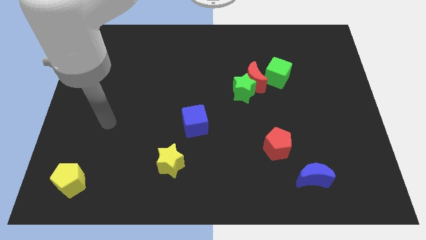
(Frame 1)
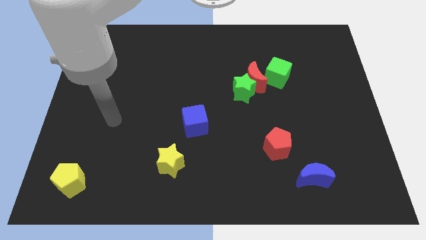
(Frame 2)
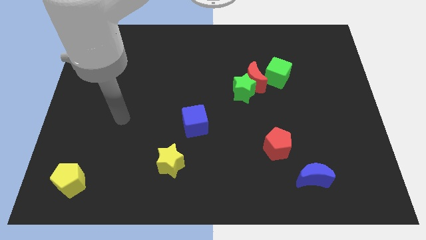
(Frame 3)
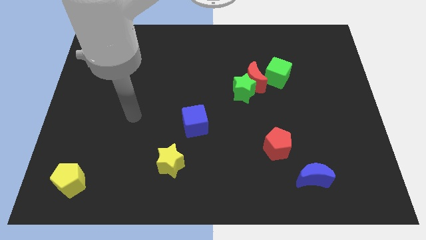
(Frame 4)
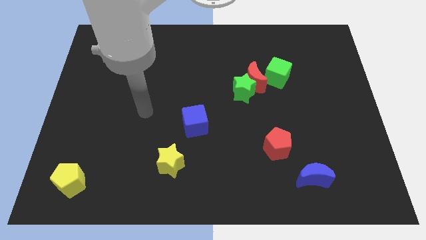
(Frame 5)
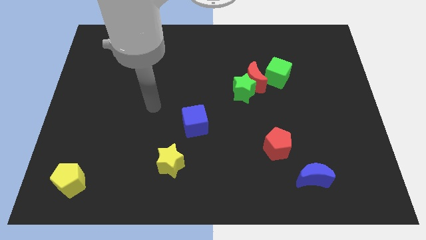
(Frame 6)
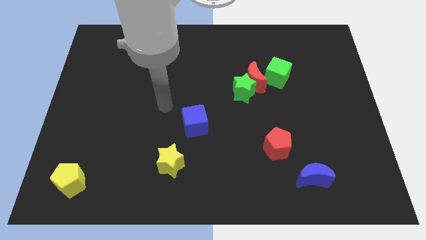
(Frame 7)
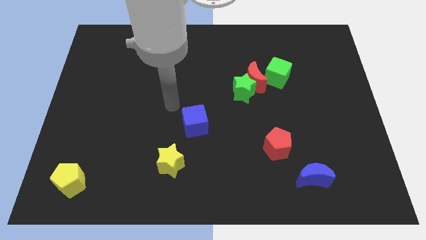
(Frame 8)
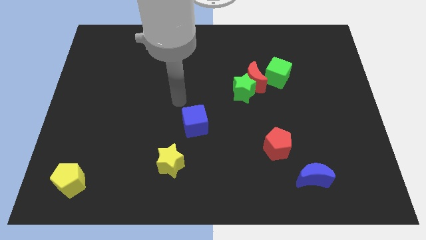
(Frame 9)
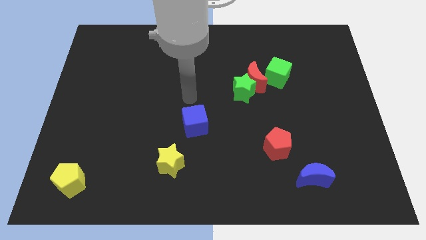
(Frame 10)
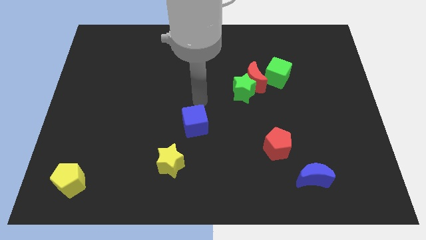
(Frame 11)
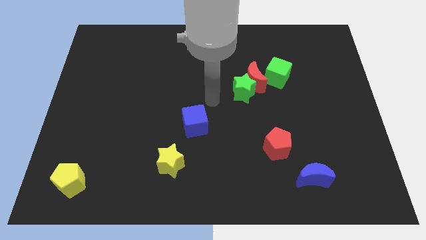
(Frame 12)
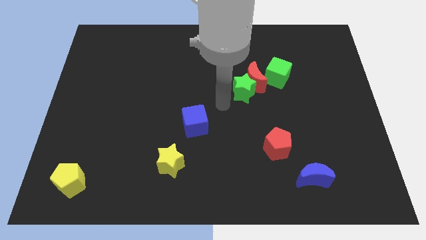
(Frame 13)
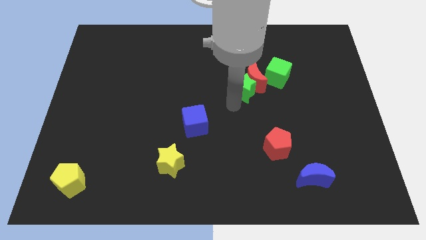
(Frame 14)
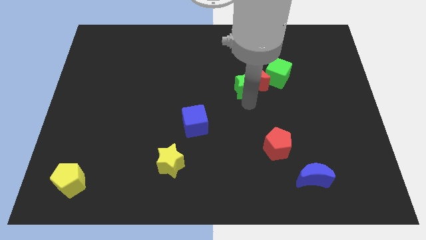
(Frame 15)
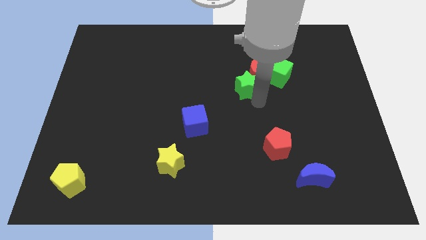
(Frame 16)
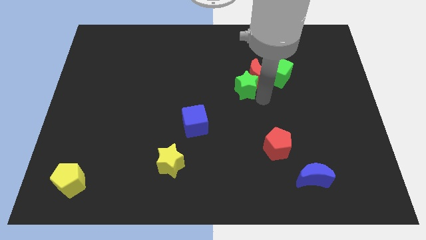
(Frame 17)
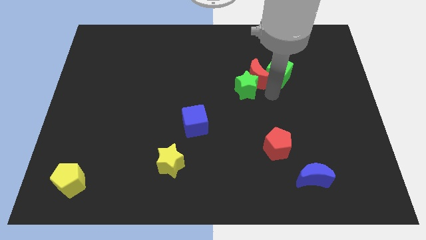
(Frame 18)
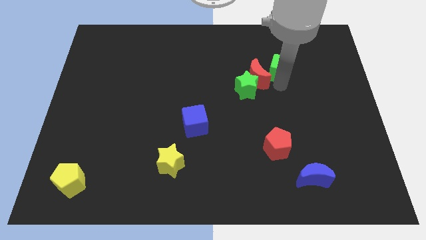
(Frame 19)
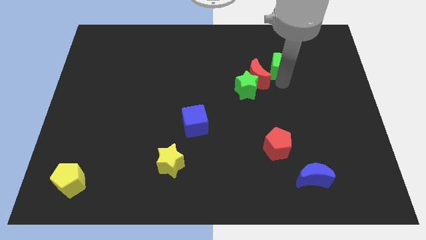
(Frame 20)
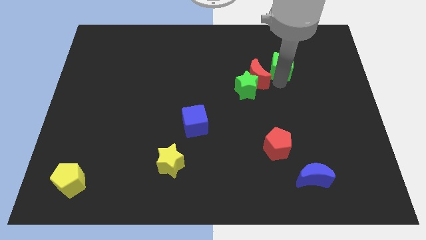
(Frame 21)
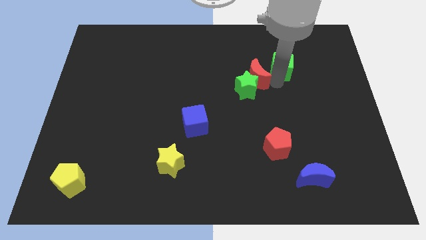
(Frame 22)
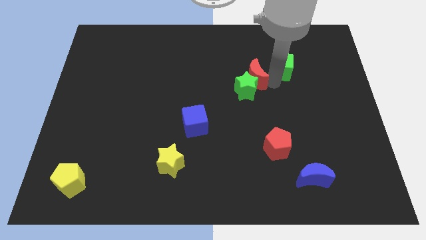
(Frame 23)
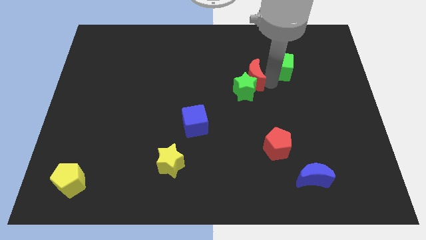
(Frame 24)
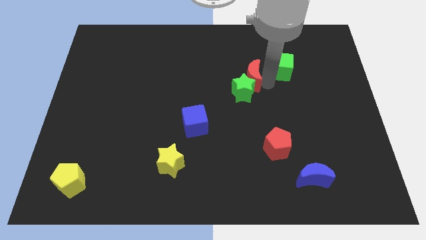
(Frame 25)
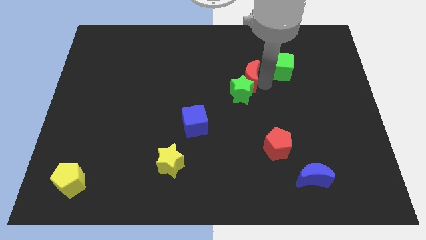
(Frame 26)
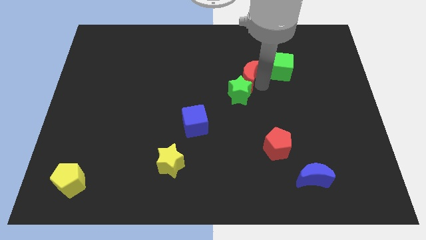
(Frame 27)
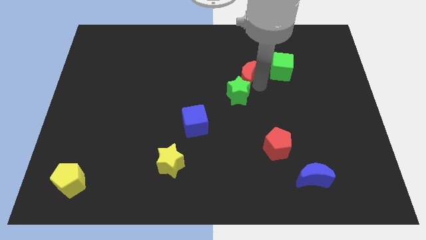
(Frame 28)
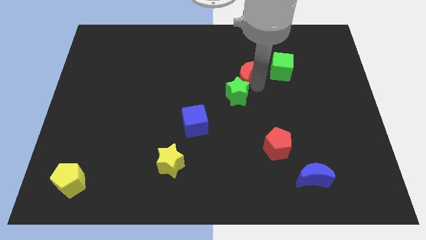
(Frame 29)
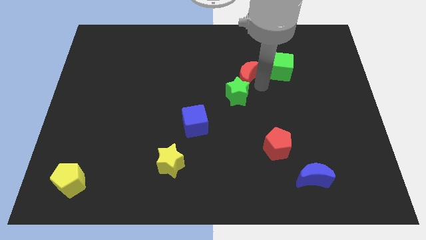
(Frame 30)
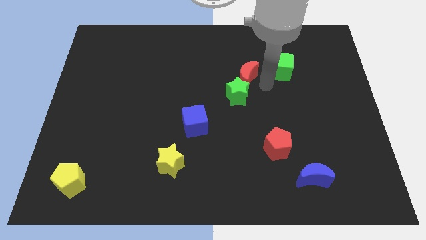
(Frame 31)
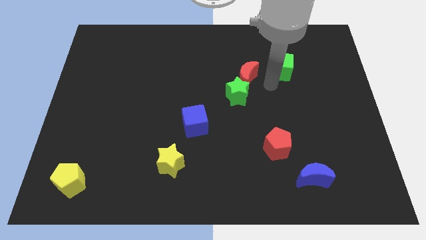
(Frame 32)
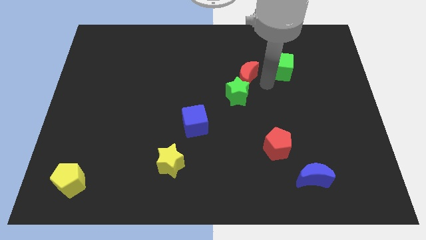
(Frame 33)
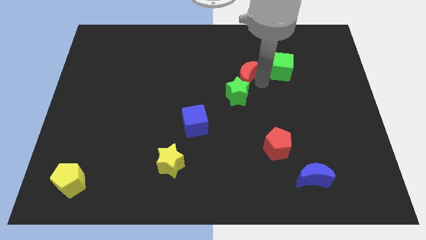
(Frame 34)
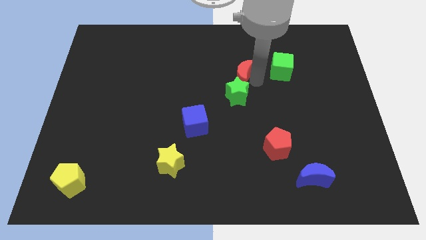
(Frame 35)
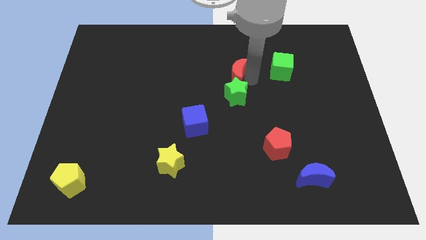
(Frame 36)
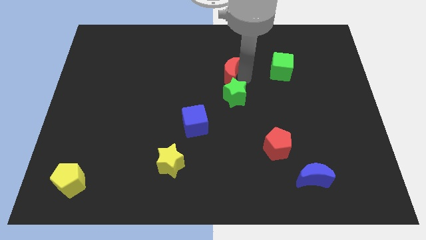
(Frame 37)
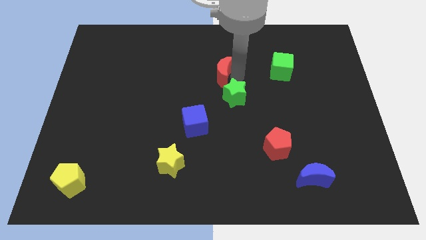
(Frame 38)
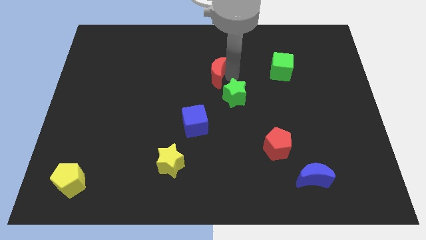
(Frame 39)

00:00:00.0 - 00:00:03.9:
separate the red moon from the green star and green cube

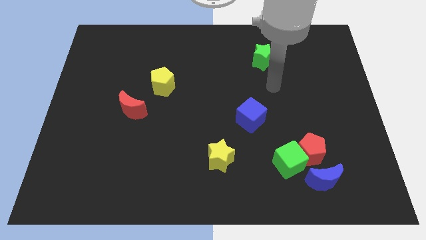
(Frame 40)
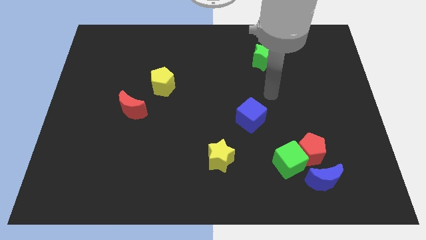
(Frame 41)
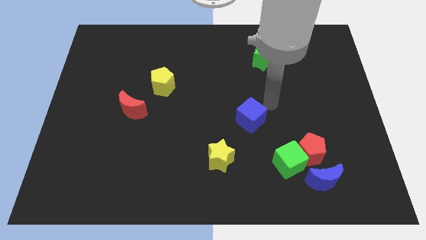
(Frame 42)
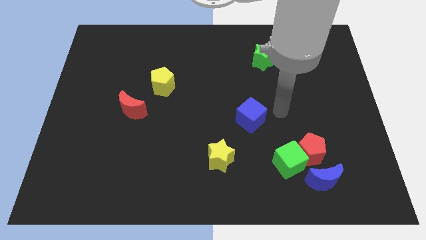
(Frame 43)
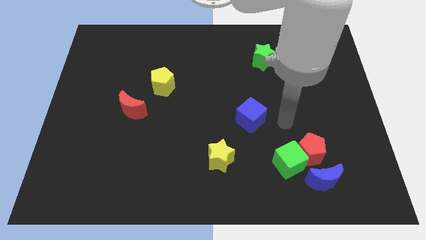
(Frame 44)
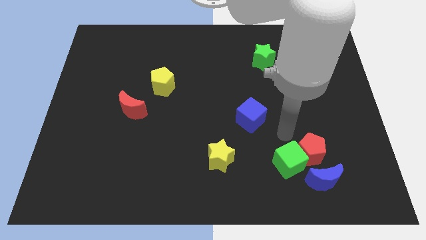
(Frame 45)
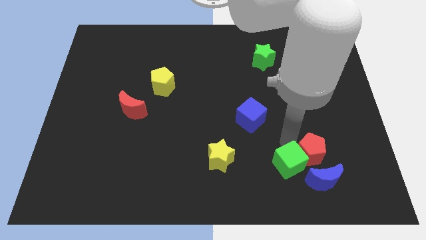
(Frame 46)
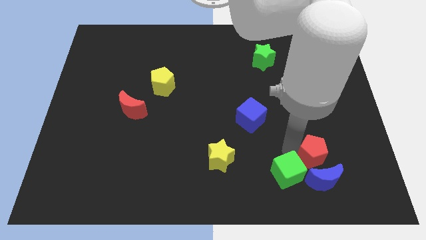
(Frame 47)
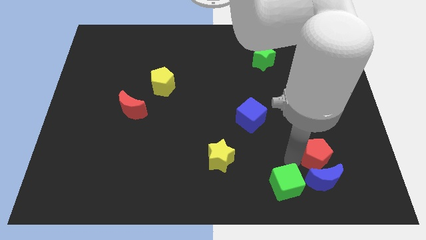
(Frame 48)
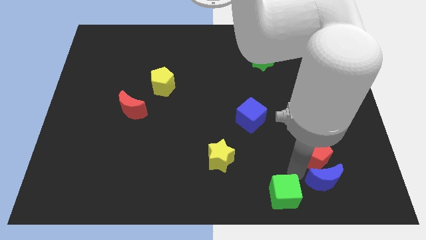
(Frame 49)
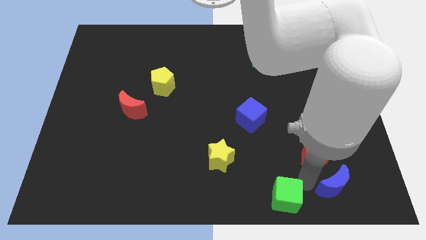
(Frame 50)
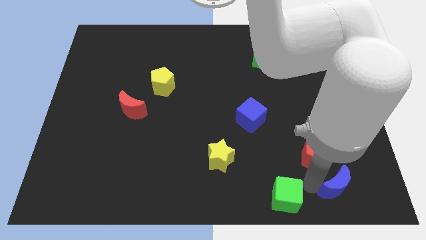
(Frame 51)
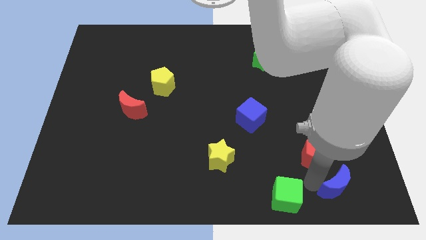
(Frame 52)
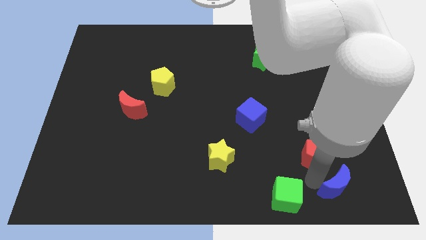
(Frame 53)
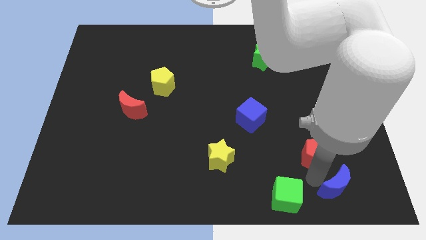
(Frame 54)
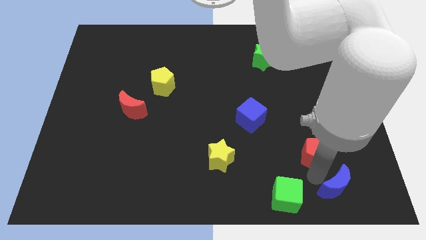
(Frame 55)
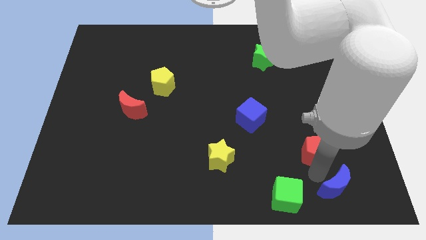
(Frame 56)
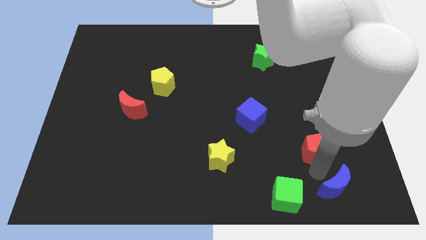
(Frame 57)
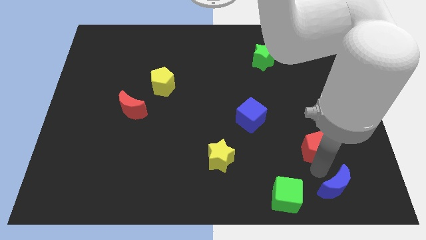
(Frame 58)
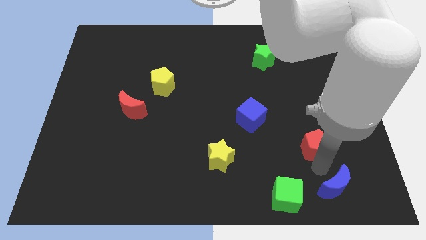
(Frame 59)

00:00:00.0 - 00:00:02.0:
move the red pentagon away from the green cube and blue moon

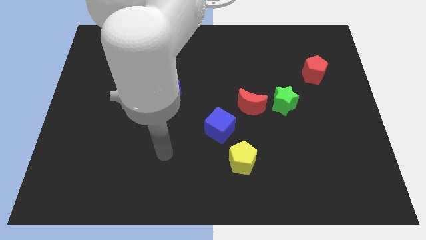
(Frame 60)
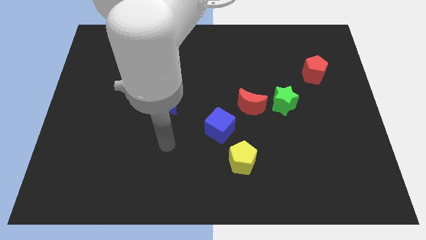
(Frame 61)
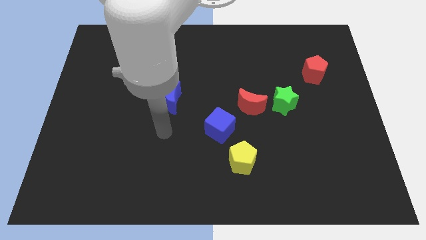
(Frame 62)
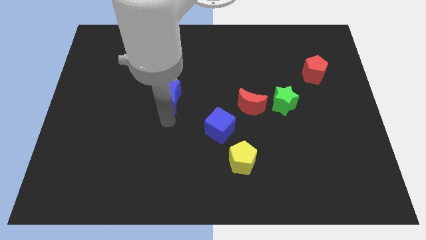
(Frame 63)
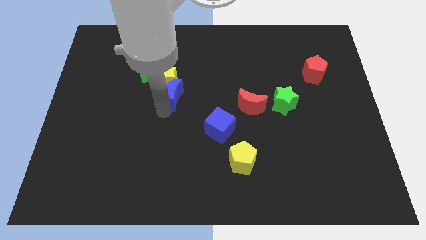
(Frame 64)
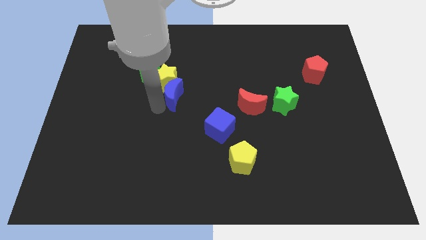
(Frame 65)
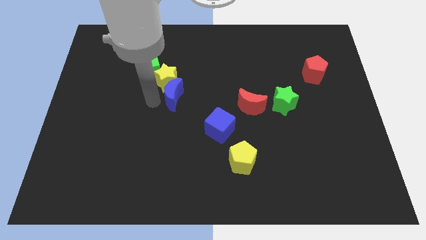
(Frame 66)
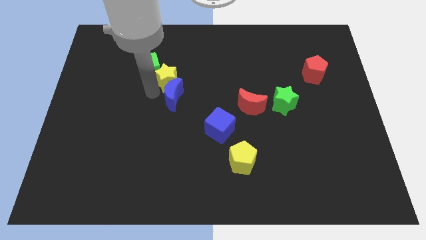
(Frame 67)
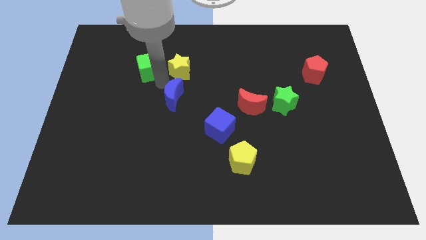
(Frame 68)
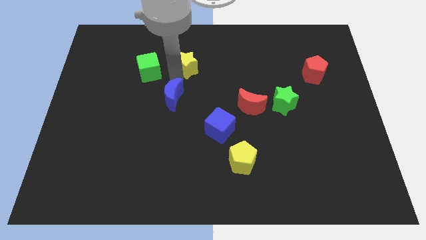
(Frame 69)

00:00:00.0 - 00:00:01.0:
separate the blue moon from the yellow star

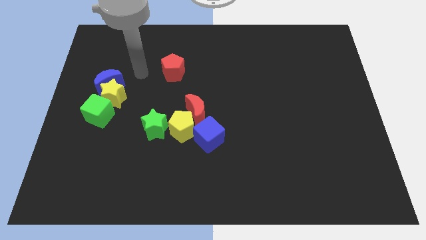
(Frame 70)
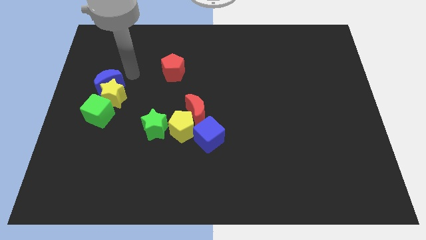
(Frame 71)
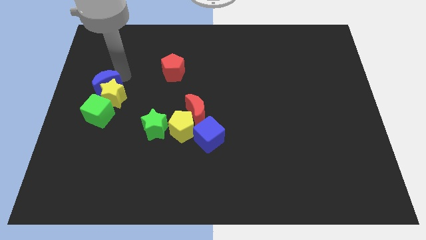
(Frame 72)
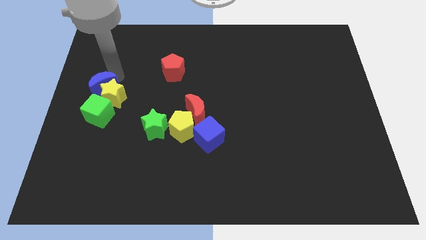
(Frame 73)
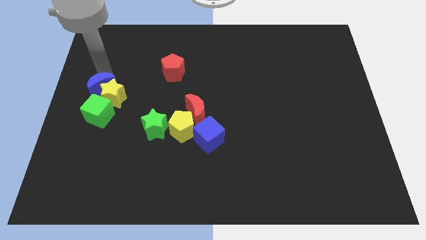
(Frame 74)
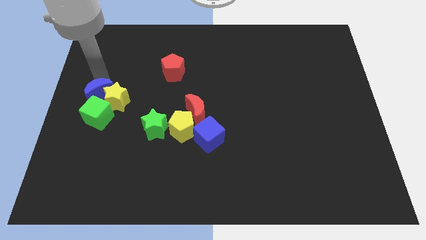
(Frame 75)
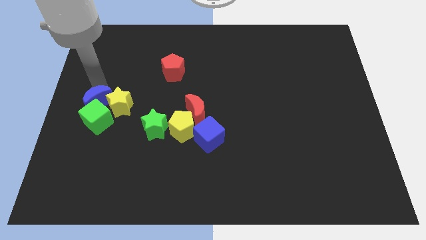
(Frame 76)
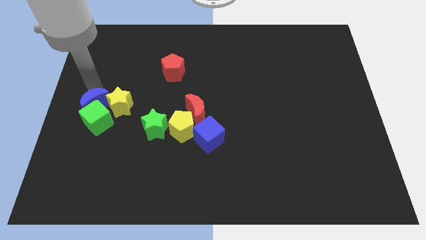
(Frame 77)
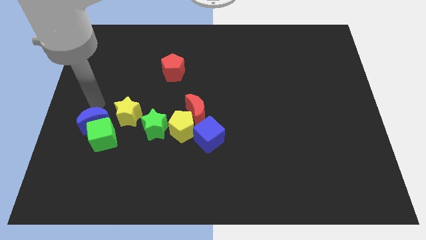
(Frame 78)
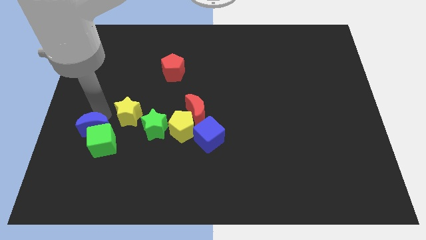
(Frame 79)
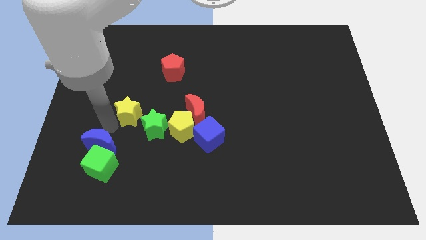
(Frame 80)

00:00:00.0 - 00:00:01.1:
pull the yellow star apart from the blue moon and green cube

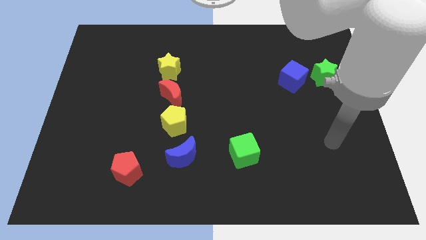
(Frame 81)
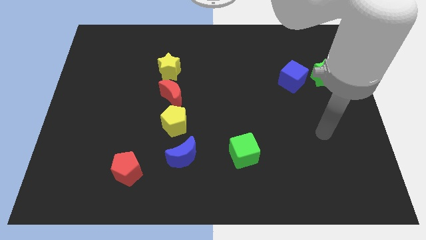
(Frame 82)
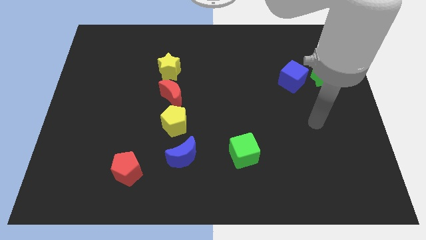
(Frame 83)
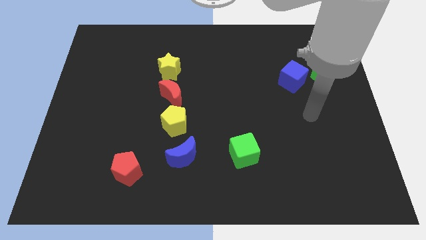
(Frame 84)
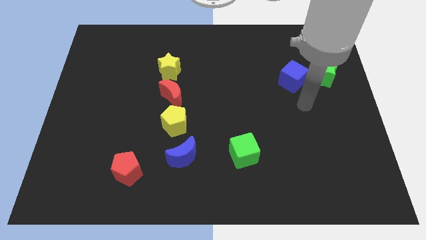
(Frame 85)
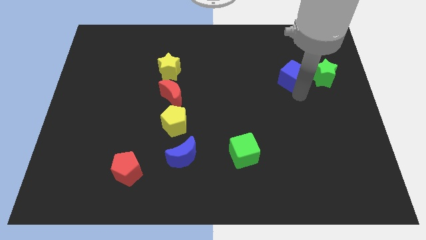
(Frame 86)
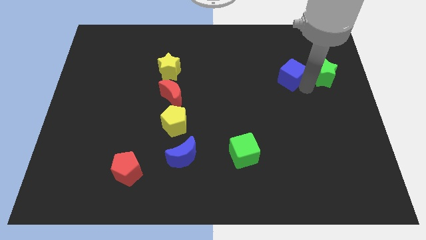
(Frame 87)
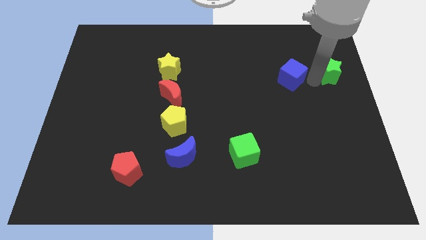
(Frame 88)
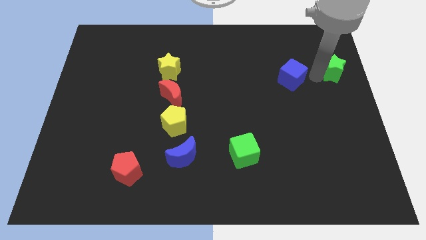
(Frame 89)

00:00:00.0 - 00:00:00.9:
move the blue cube away from the green star

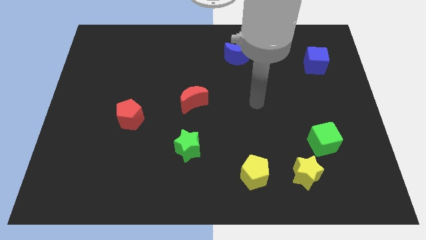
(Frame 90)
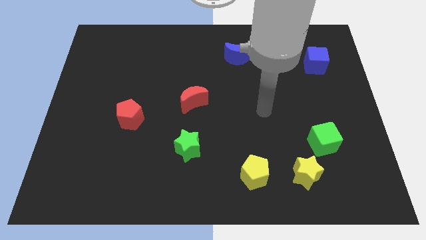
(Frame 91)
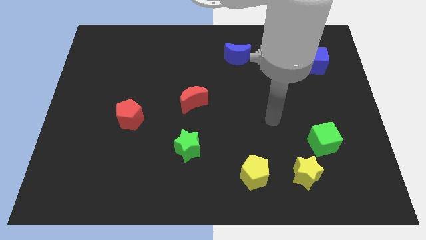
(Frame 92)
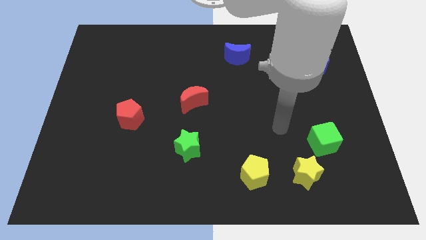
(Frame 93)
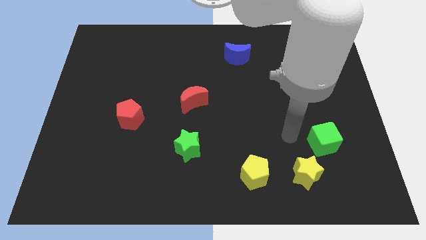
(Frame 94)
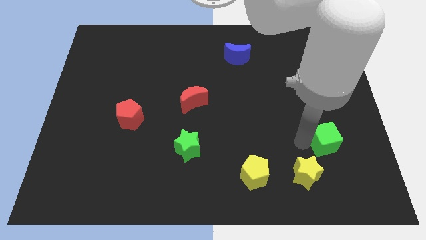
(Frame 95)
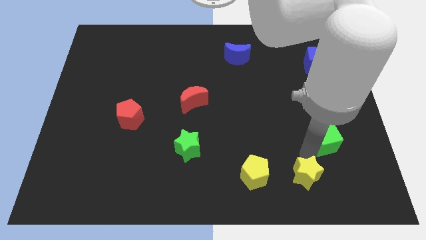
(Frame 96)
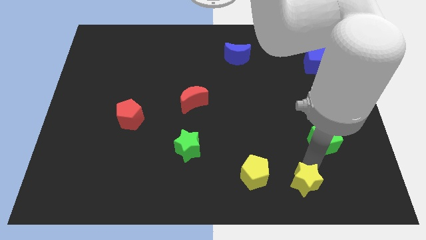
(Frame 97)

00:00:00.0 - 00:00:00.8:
move the green cube away from the yellow star
